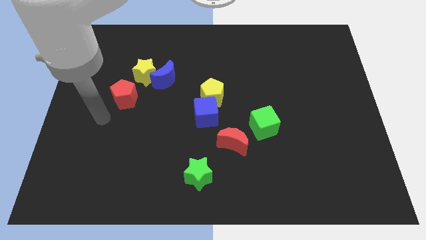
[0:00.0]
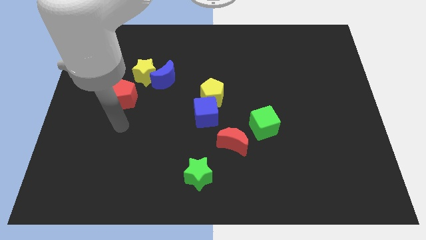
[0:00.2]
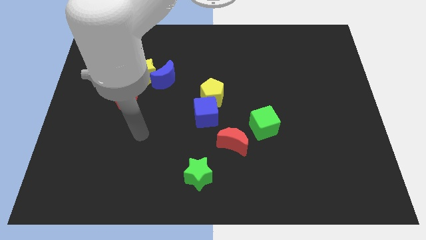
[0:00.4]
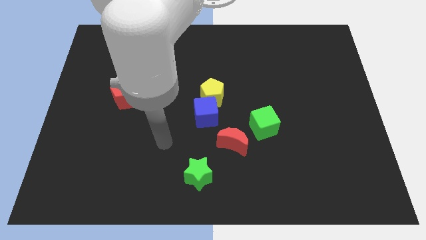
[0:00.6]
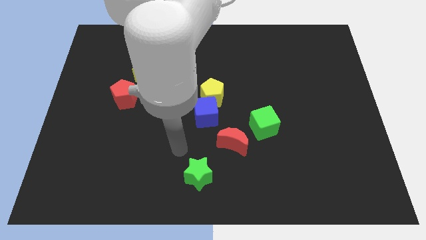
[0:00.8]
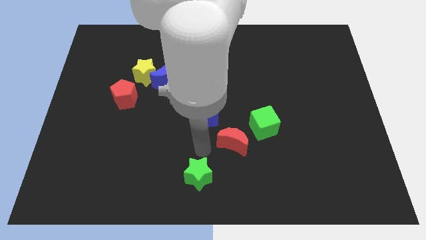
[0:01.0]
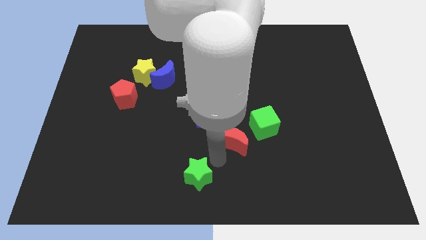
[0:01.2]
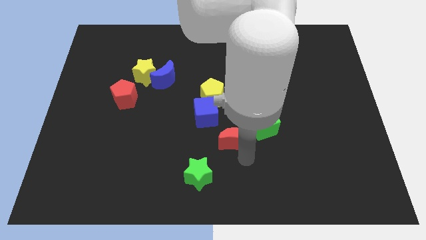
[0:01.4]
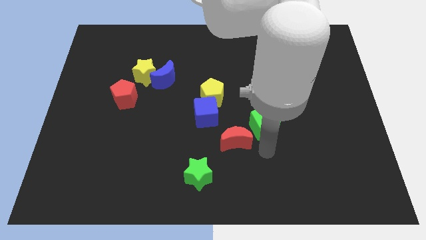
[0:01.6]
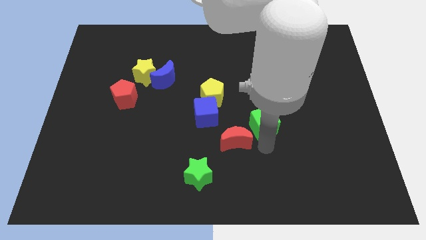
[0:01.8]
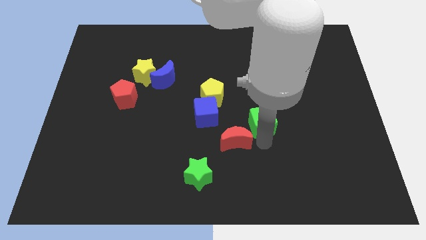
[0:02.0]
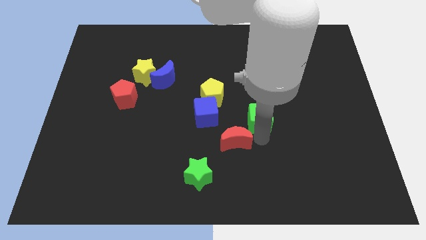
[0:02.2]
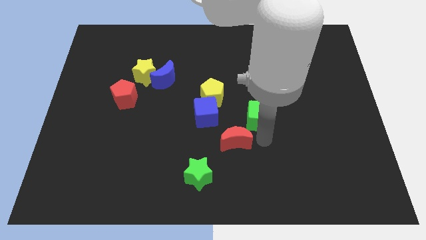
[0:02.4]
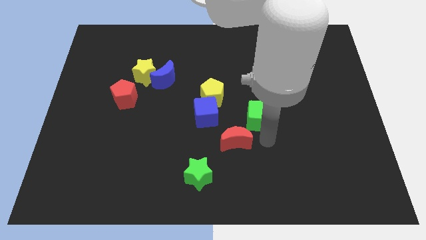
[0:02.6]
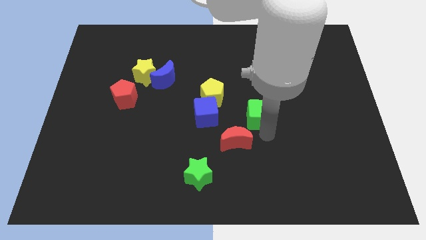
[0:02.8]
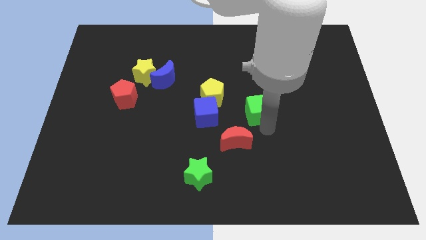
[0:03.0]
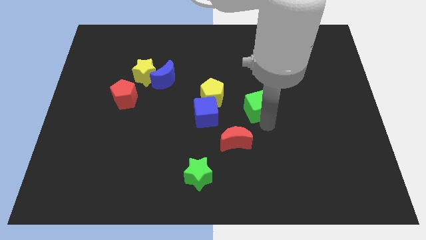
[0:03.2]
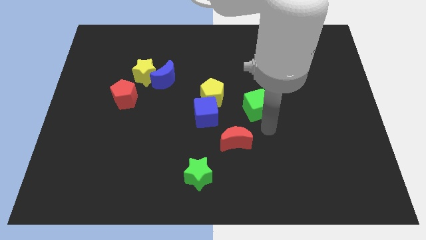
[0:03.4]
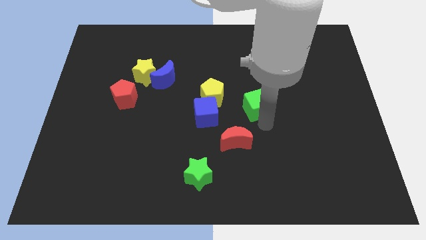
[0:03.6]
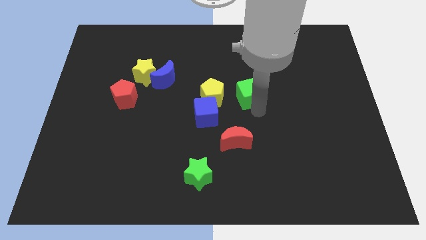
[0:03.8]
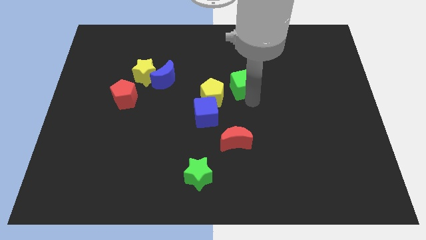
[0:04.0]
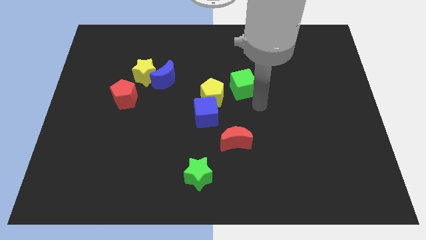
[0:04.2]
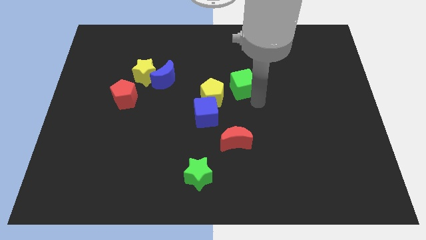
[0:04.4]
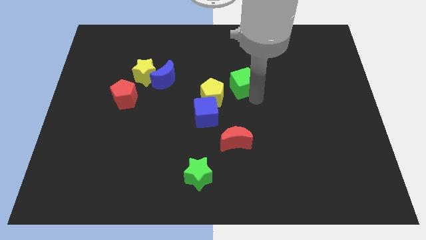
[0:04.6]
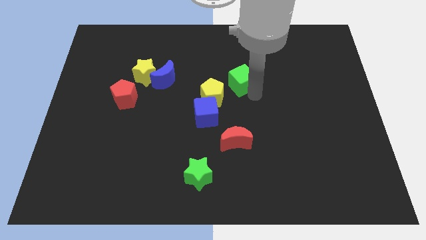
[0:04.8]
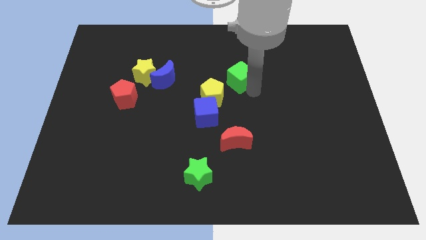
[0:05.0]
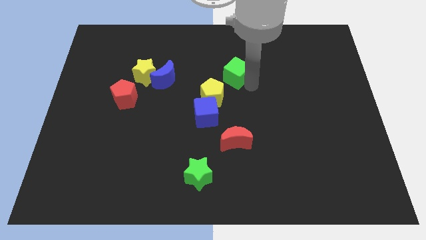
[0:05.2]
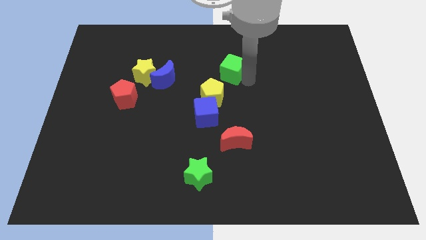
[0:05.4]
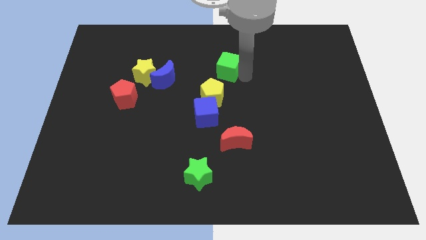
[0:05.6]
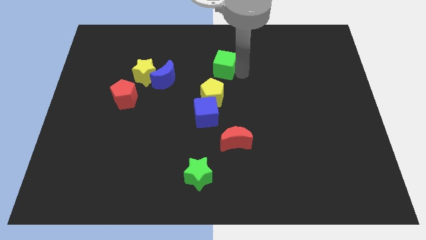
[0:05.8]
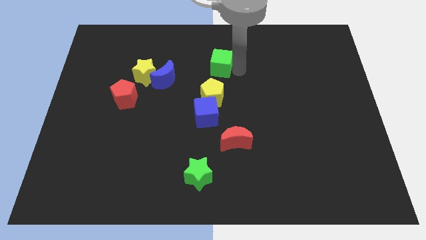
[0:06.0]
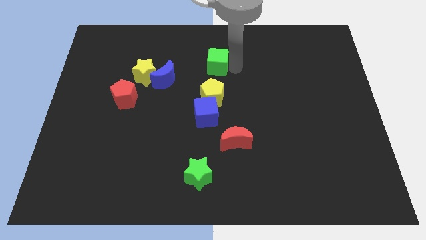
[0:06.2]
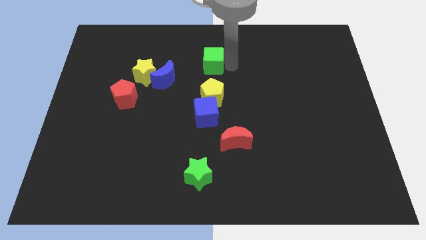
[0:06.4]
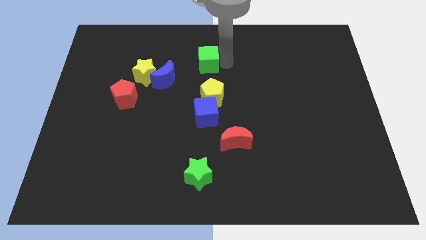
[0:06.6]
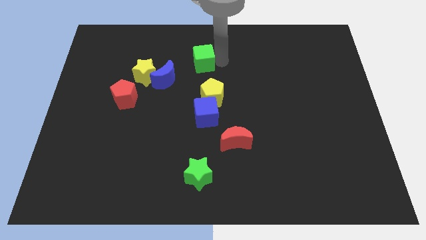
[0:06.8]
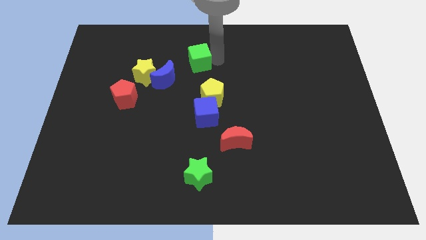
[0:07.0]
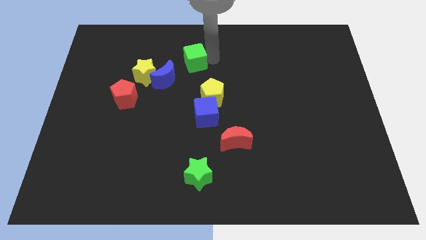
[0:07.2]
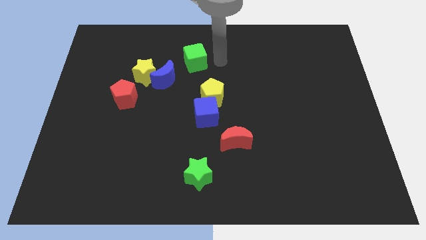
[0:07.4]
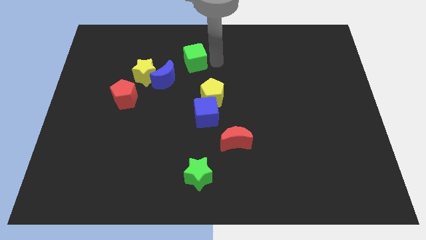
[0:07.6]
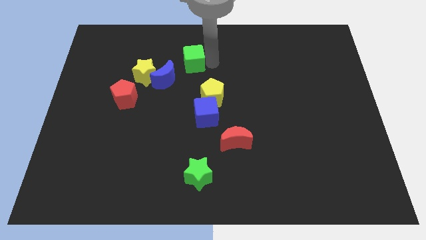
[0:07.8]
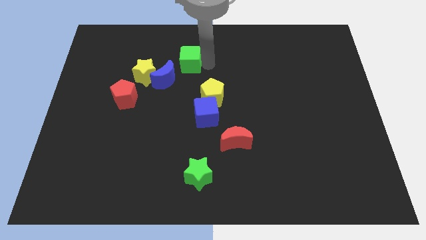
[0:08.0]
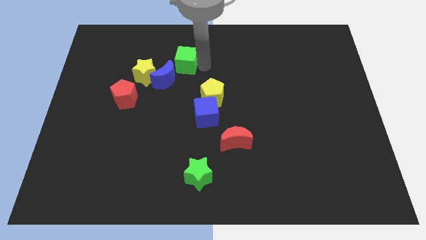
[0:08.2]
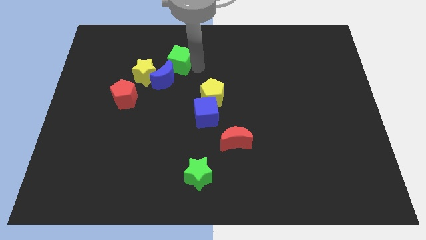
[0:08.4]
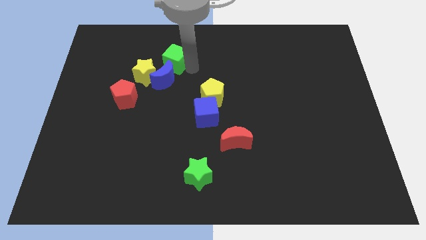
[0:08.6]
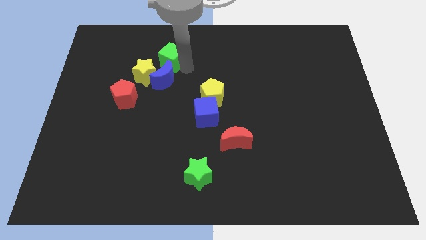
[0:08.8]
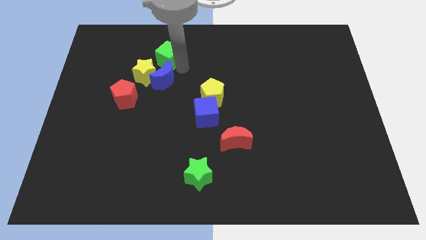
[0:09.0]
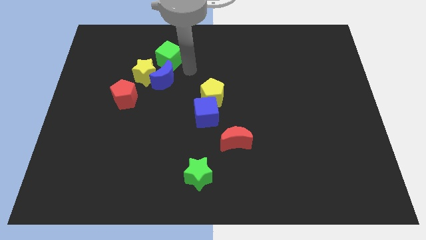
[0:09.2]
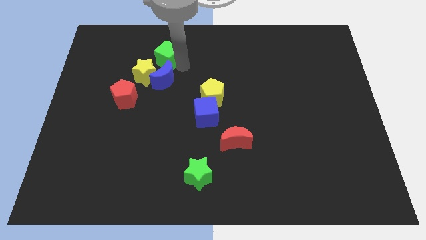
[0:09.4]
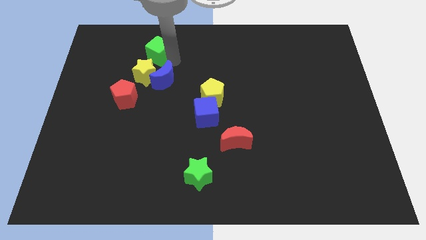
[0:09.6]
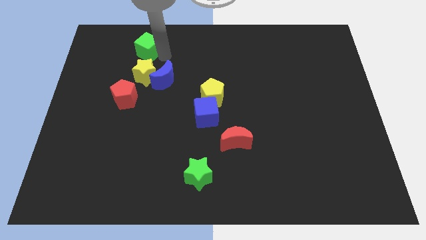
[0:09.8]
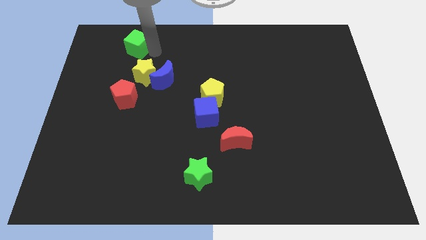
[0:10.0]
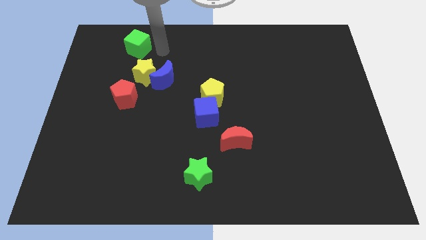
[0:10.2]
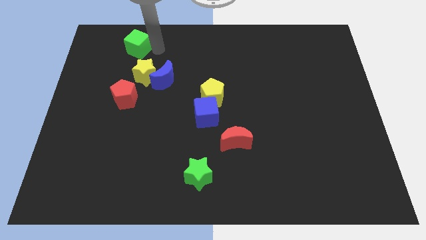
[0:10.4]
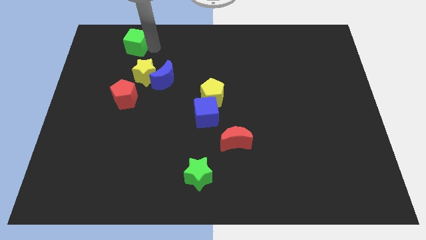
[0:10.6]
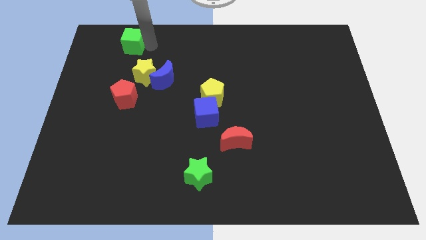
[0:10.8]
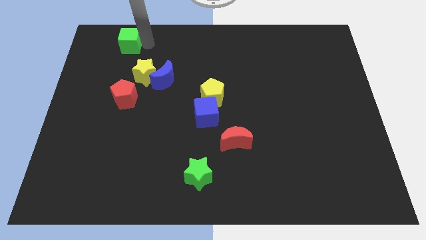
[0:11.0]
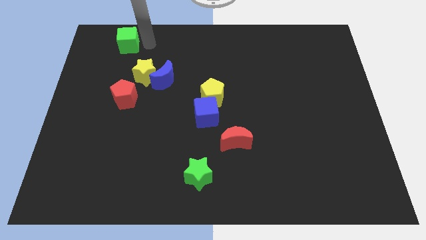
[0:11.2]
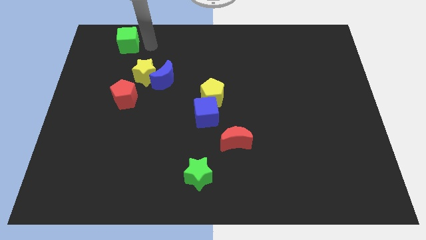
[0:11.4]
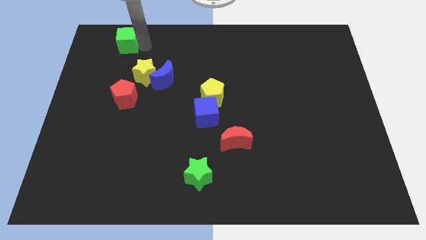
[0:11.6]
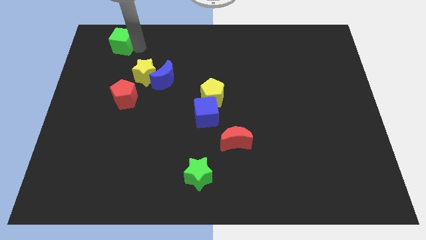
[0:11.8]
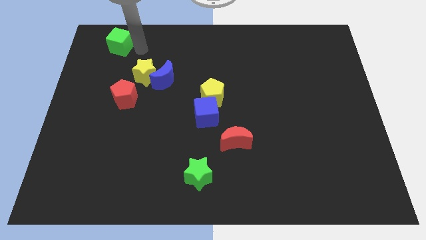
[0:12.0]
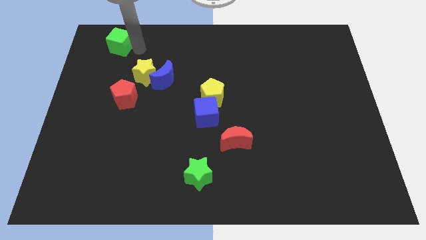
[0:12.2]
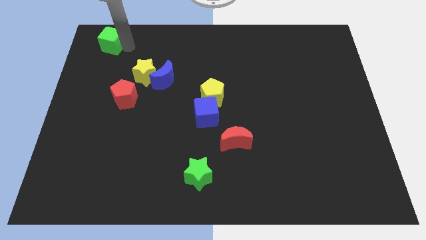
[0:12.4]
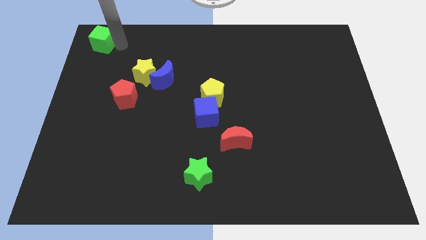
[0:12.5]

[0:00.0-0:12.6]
slide the green cube to the top left corner
